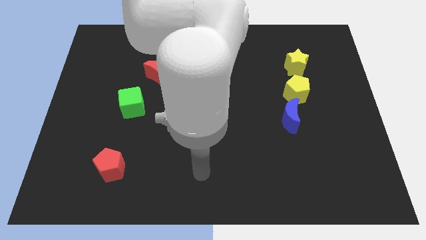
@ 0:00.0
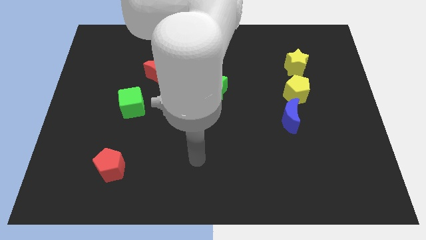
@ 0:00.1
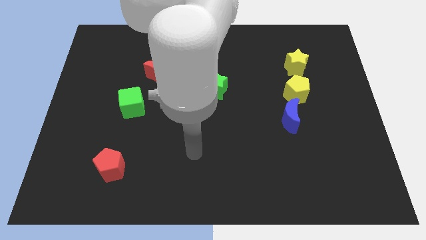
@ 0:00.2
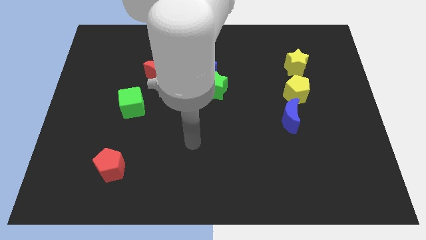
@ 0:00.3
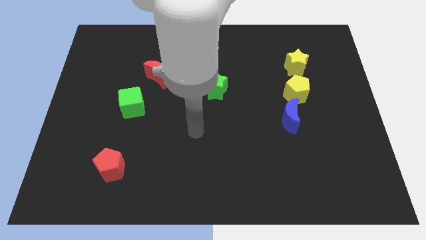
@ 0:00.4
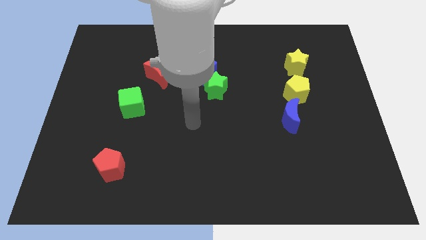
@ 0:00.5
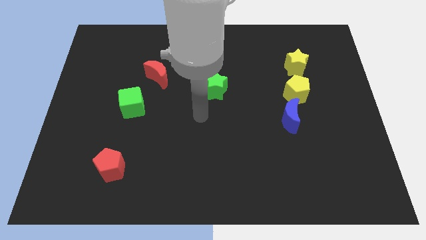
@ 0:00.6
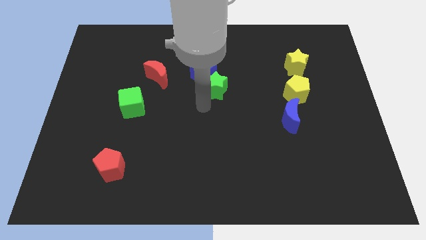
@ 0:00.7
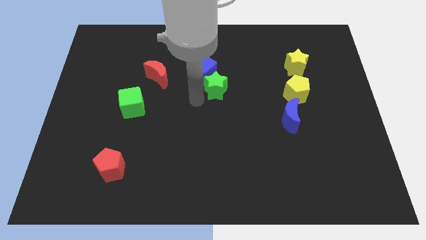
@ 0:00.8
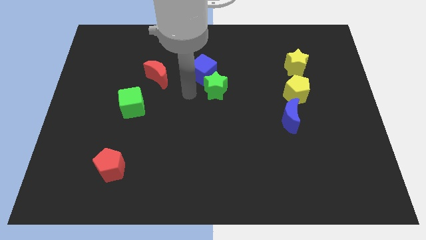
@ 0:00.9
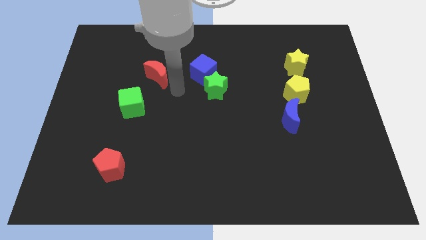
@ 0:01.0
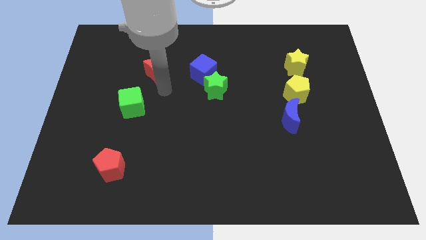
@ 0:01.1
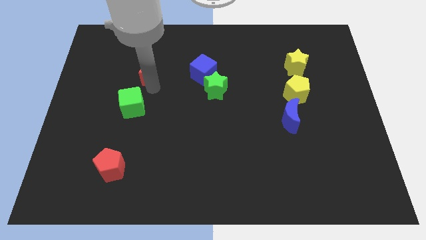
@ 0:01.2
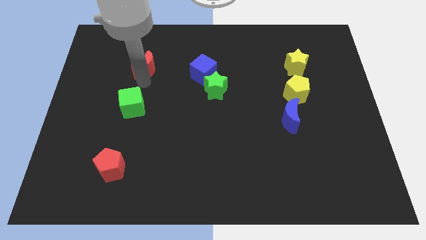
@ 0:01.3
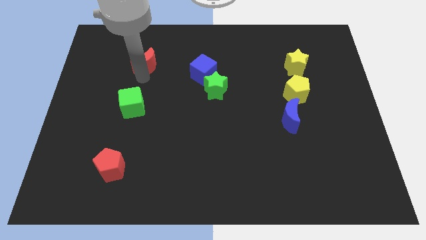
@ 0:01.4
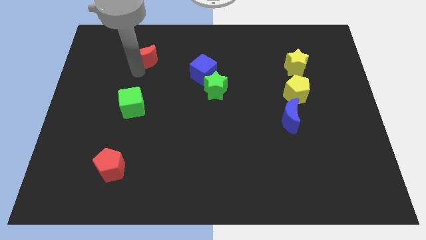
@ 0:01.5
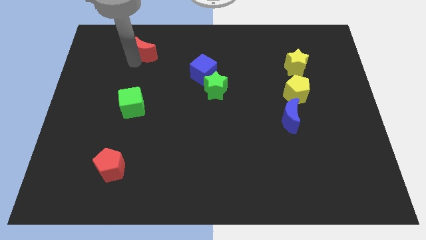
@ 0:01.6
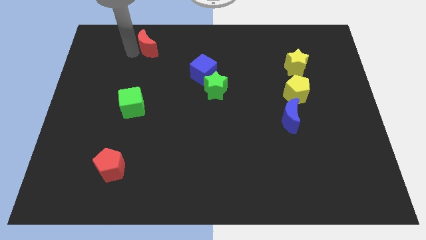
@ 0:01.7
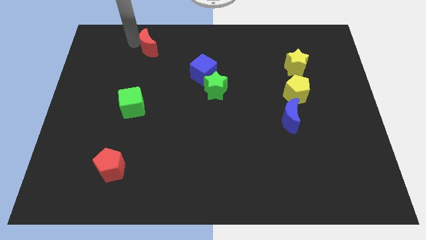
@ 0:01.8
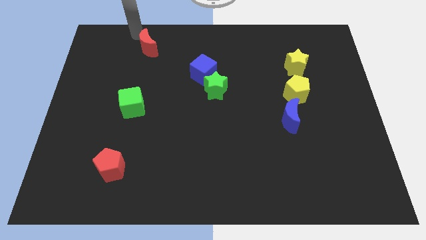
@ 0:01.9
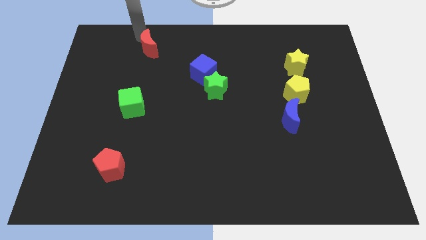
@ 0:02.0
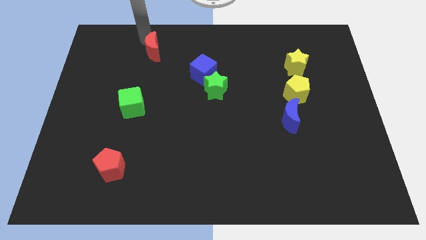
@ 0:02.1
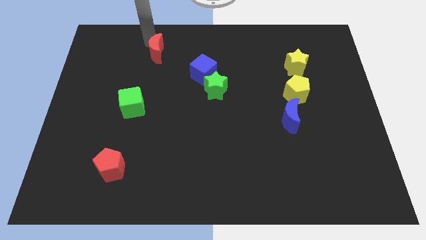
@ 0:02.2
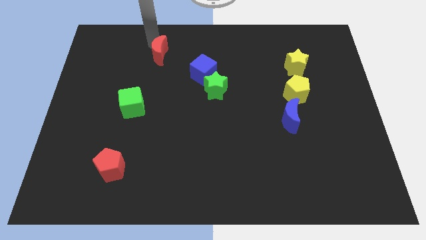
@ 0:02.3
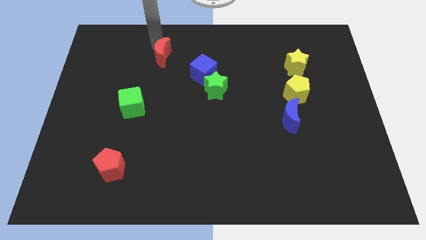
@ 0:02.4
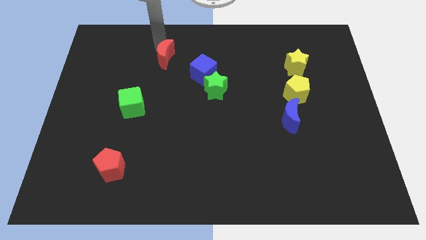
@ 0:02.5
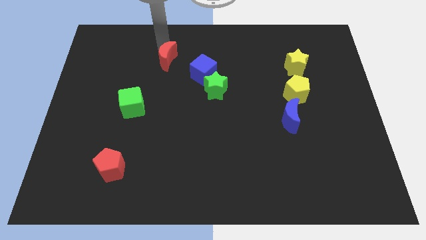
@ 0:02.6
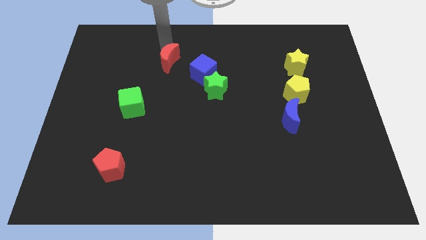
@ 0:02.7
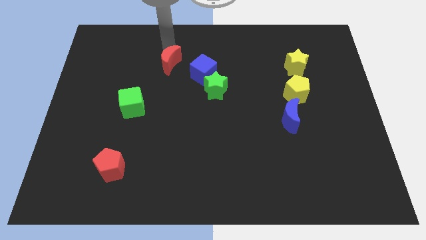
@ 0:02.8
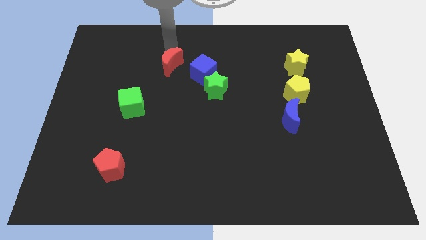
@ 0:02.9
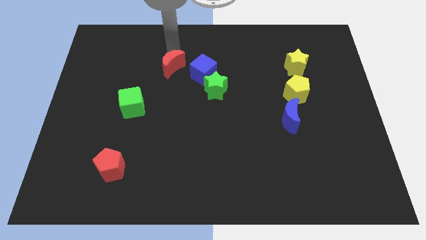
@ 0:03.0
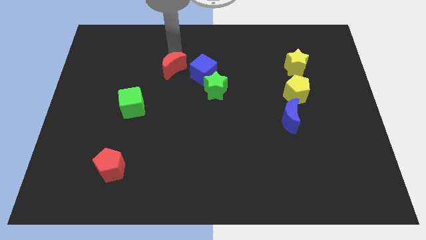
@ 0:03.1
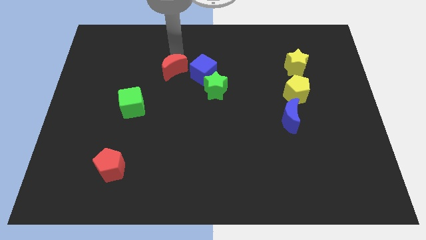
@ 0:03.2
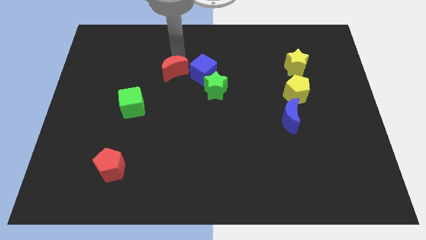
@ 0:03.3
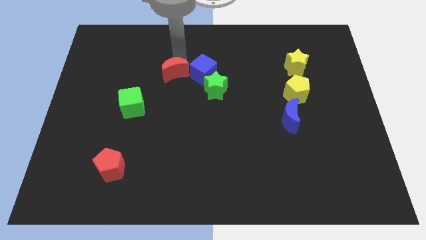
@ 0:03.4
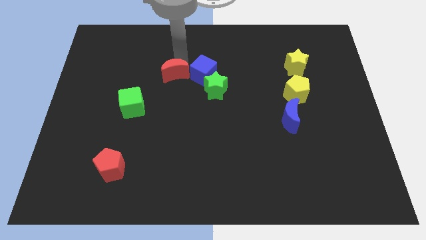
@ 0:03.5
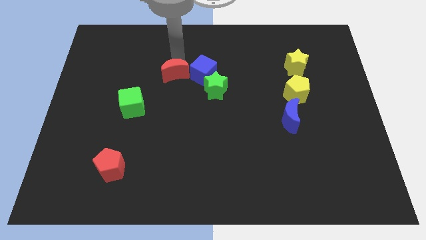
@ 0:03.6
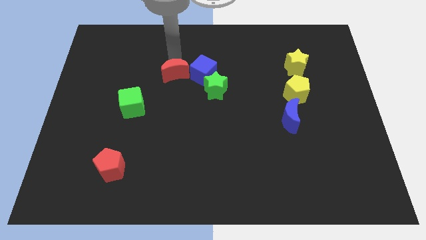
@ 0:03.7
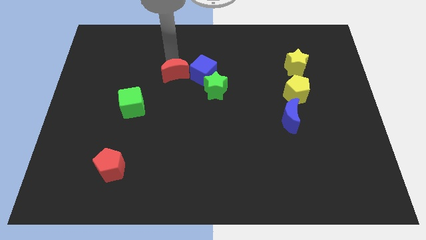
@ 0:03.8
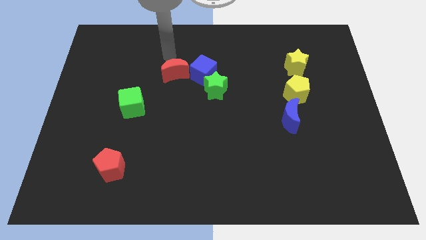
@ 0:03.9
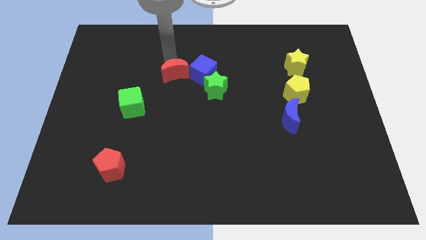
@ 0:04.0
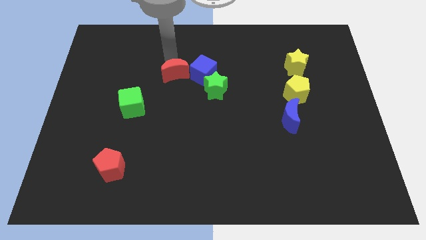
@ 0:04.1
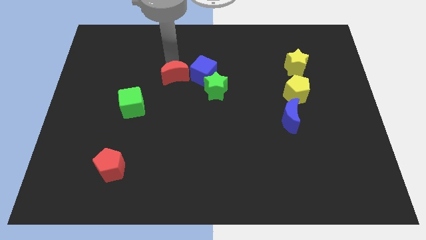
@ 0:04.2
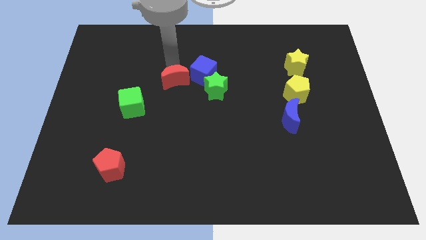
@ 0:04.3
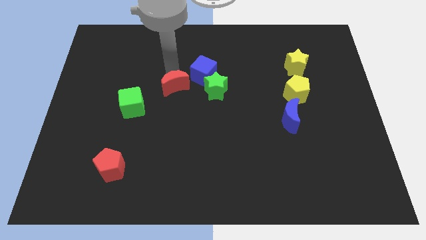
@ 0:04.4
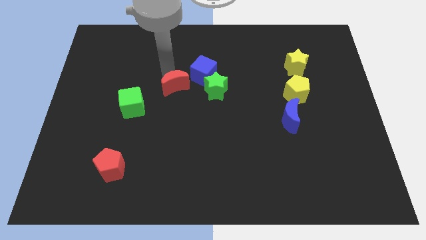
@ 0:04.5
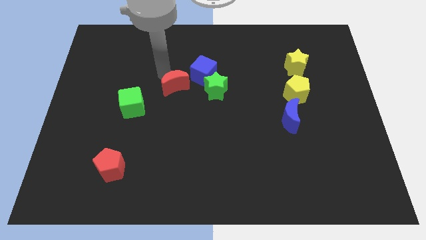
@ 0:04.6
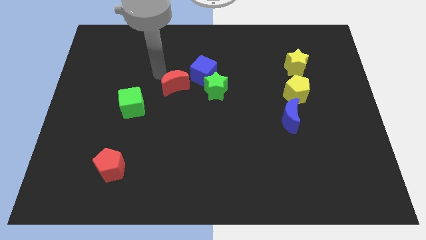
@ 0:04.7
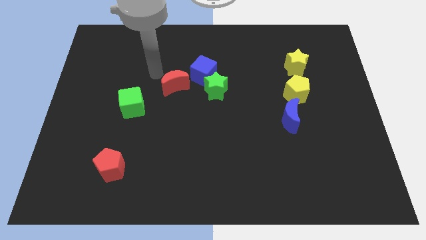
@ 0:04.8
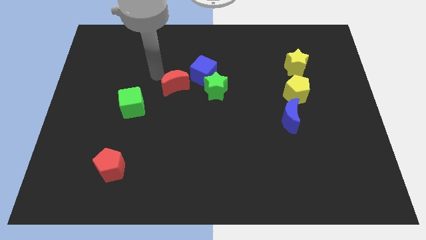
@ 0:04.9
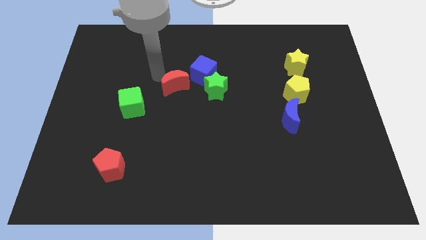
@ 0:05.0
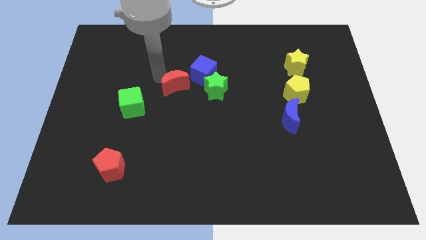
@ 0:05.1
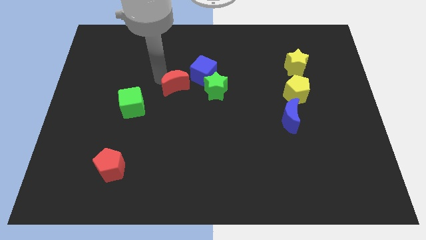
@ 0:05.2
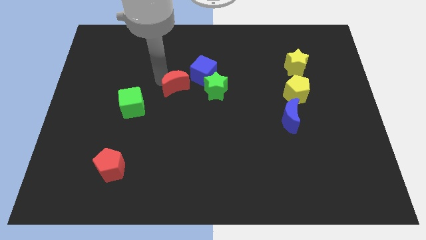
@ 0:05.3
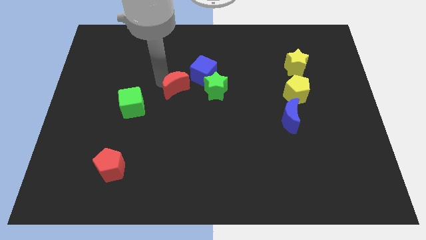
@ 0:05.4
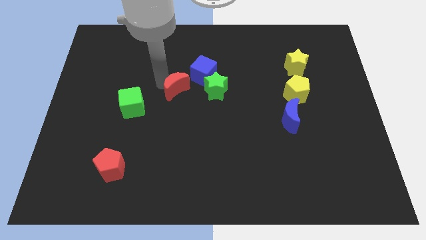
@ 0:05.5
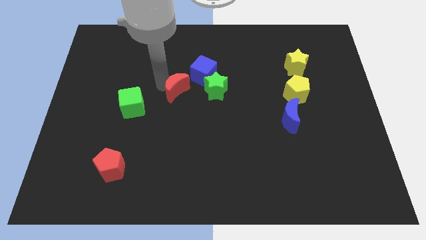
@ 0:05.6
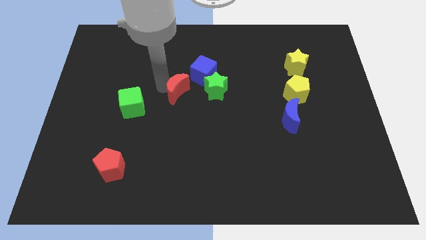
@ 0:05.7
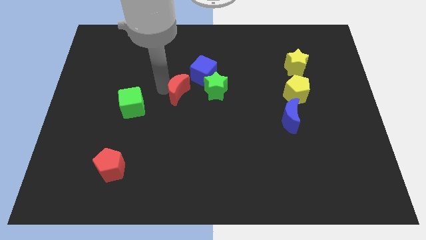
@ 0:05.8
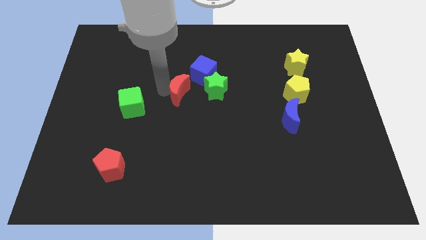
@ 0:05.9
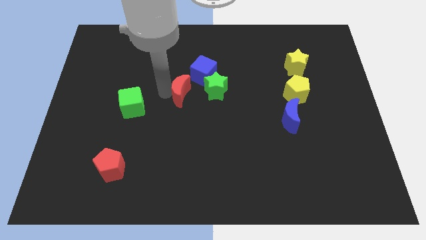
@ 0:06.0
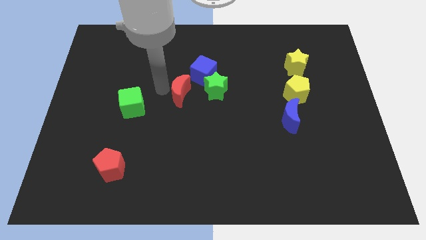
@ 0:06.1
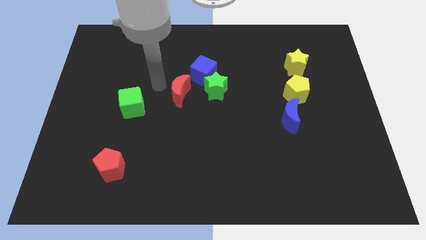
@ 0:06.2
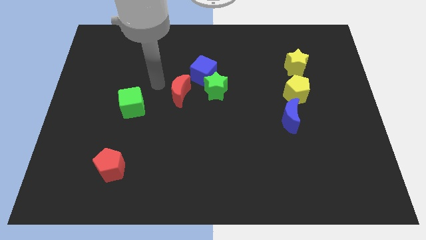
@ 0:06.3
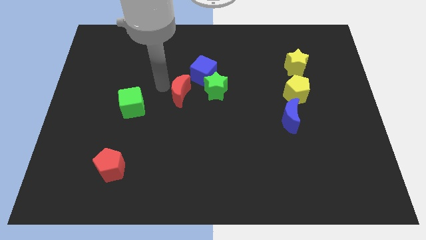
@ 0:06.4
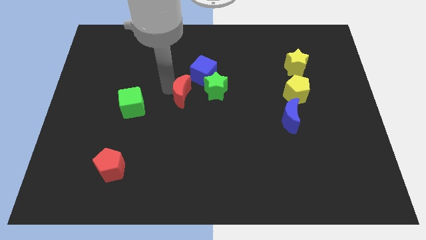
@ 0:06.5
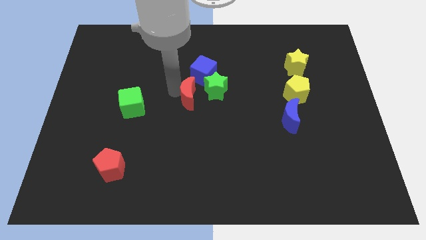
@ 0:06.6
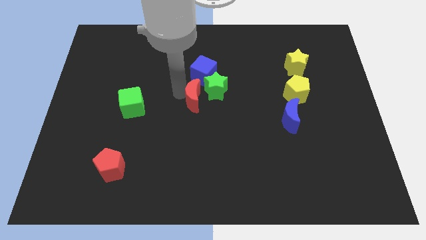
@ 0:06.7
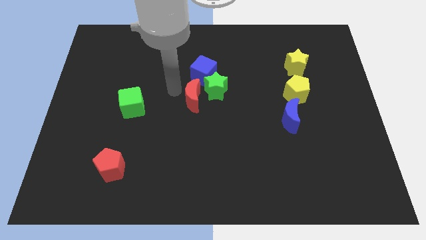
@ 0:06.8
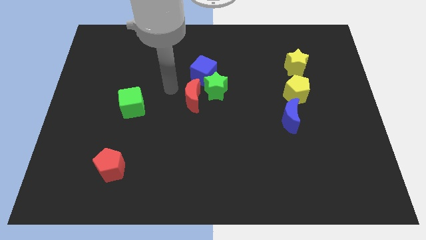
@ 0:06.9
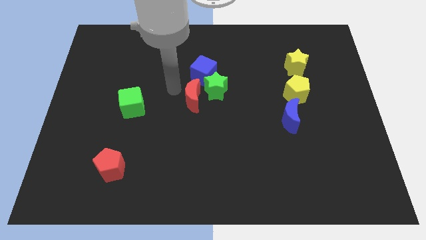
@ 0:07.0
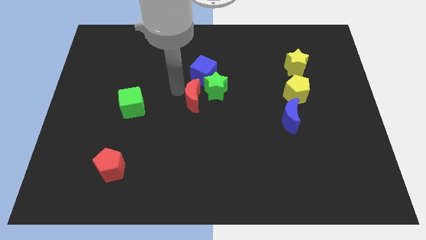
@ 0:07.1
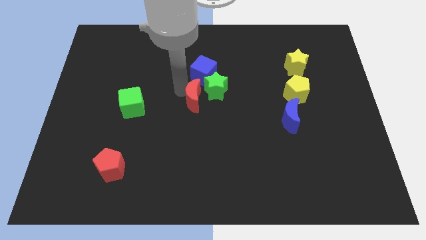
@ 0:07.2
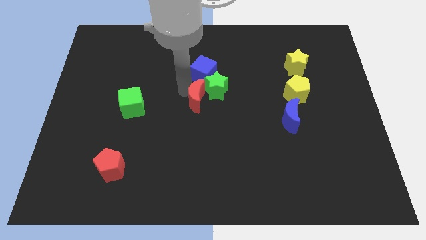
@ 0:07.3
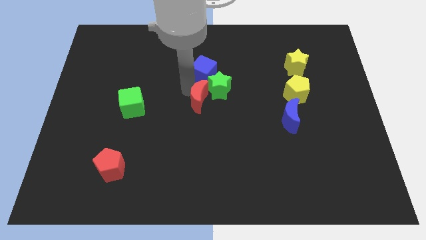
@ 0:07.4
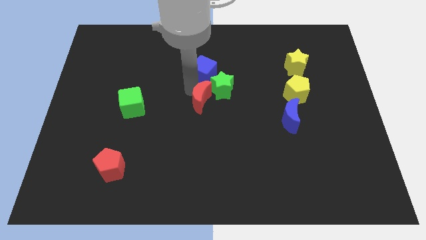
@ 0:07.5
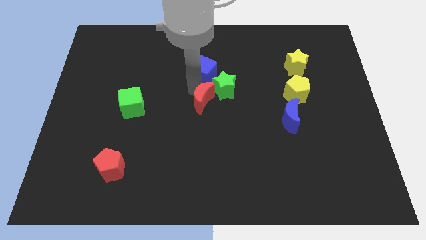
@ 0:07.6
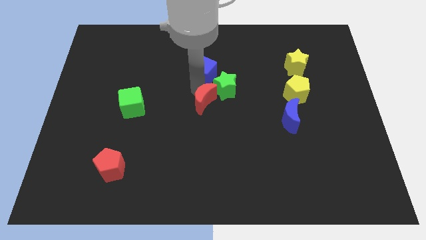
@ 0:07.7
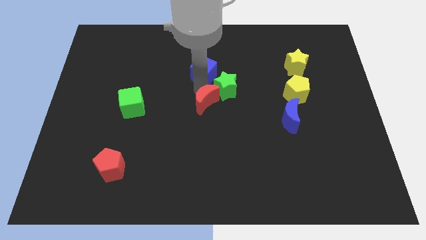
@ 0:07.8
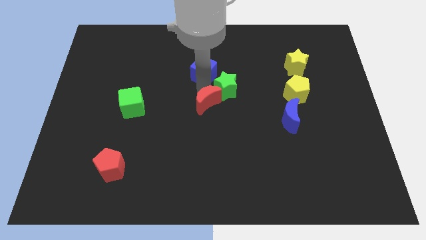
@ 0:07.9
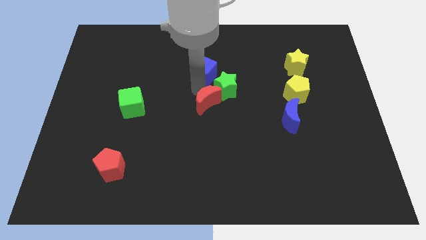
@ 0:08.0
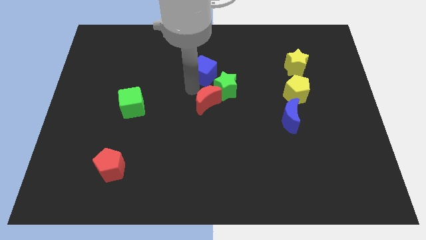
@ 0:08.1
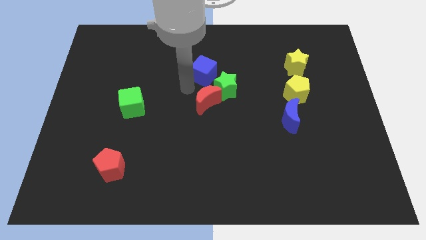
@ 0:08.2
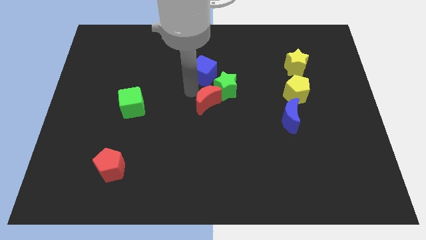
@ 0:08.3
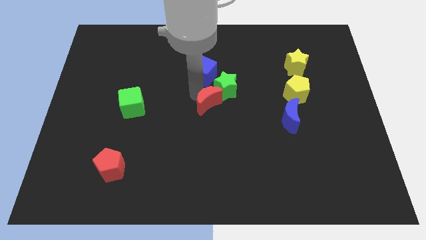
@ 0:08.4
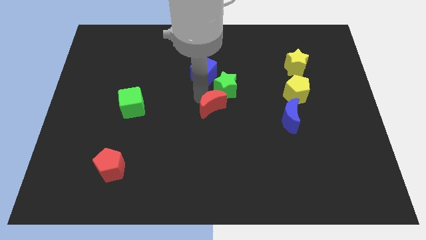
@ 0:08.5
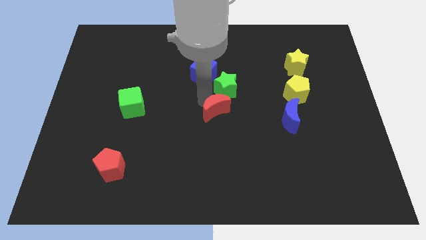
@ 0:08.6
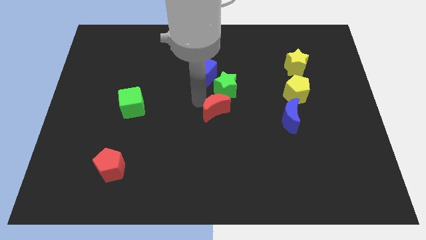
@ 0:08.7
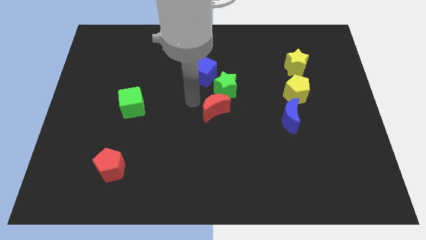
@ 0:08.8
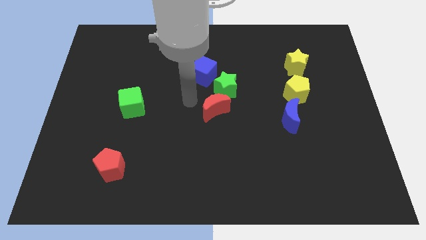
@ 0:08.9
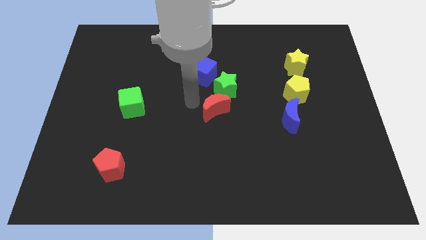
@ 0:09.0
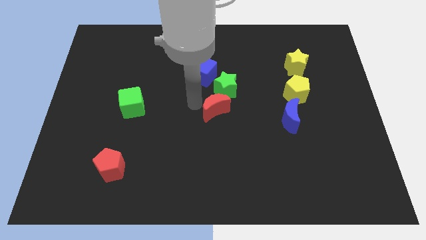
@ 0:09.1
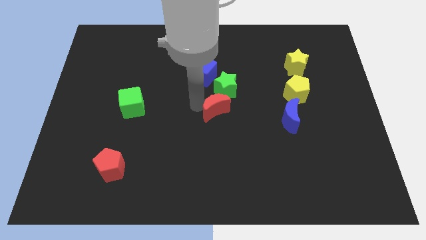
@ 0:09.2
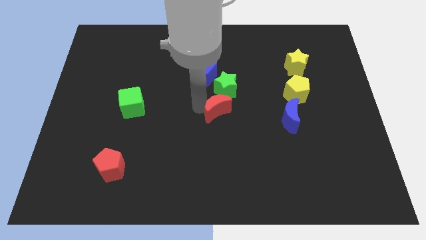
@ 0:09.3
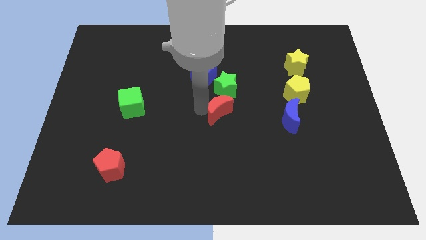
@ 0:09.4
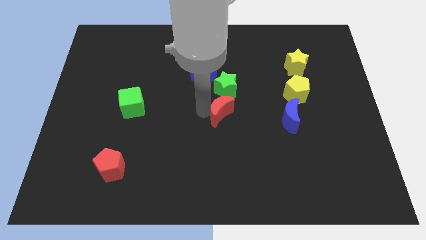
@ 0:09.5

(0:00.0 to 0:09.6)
slide the red moon to the left side of the blue moon
